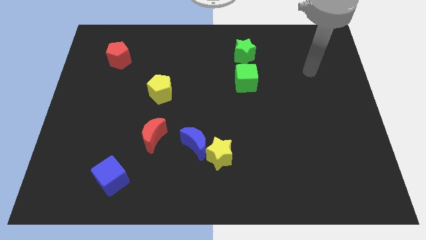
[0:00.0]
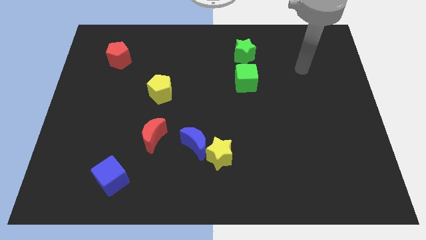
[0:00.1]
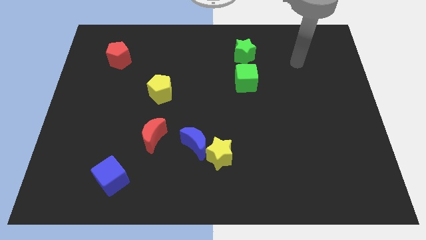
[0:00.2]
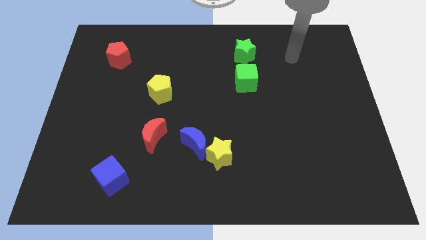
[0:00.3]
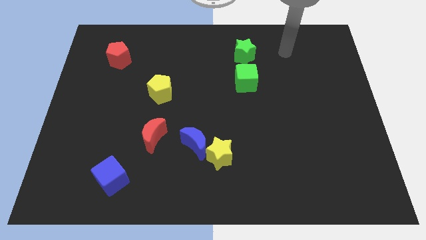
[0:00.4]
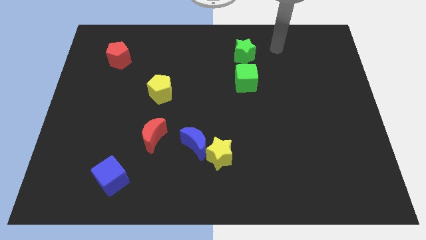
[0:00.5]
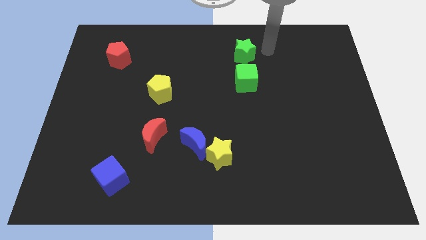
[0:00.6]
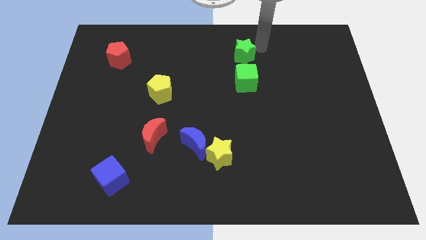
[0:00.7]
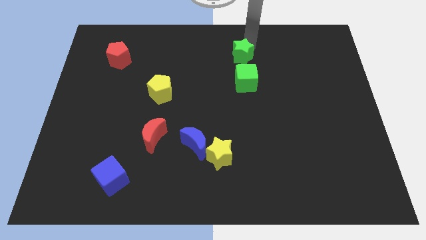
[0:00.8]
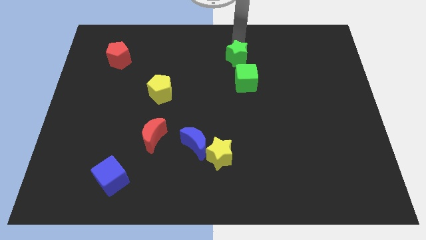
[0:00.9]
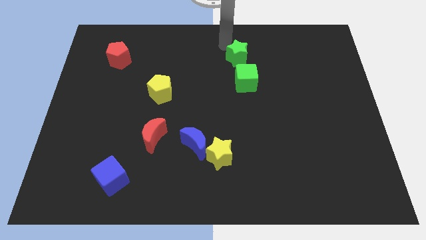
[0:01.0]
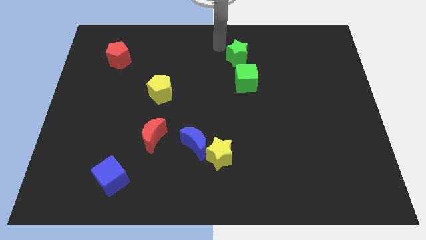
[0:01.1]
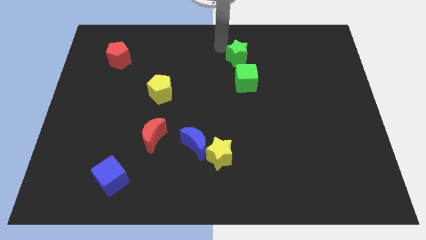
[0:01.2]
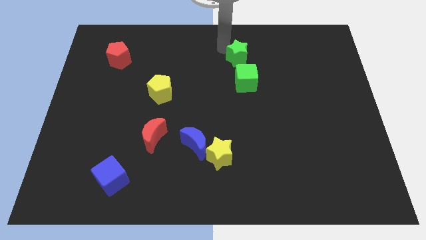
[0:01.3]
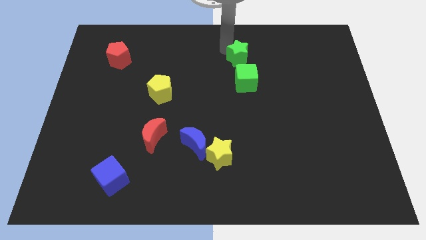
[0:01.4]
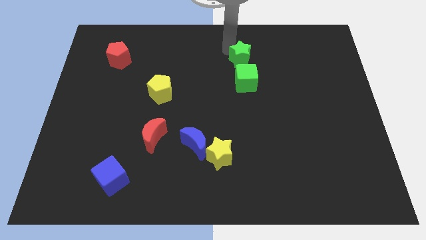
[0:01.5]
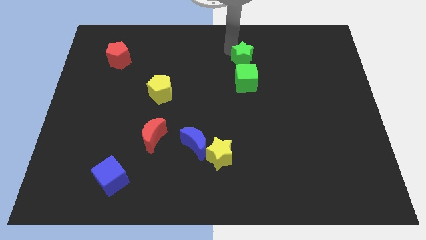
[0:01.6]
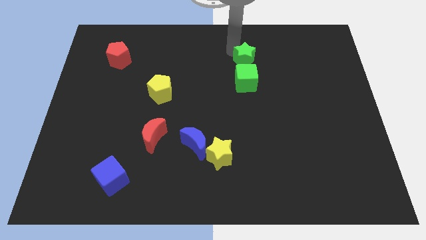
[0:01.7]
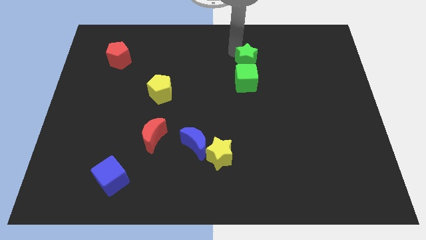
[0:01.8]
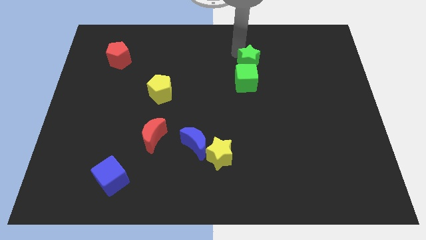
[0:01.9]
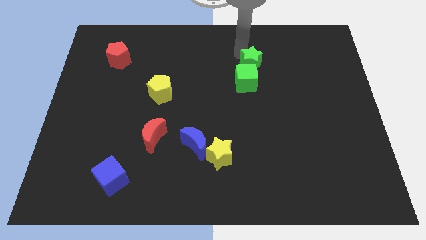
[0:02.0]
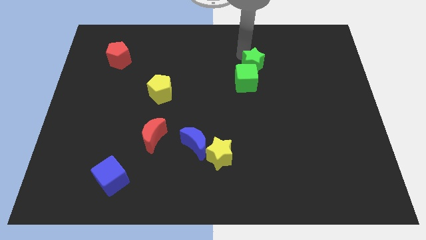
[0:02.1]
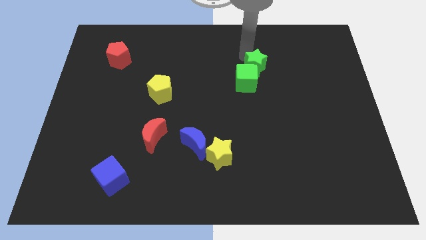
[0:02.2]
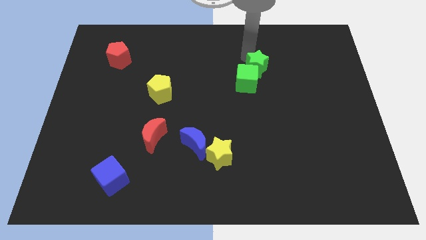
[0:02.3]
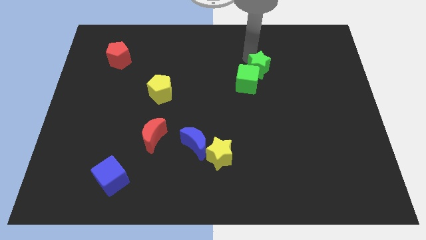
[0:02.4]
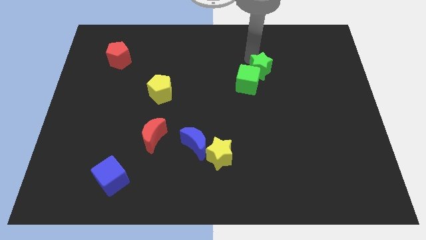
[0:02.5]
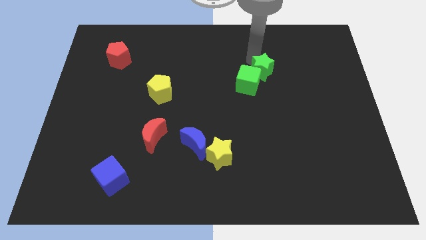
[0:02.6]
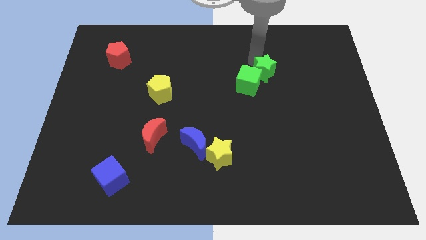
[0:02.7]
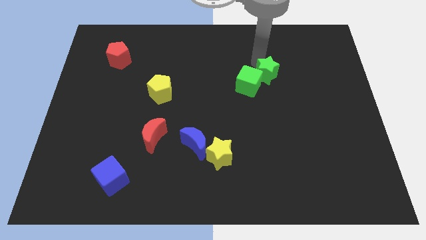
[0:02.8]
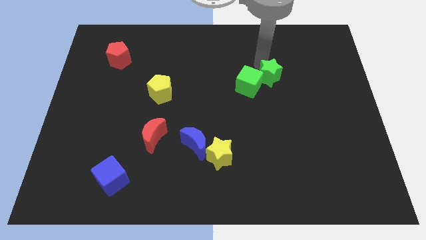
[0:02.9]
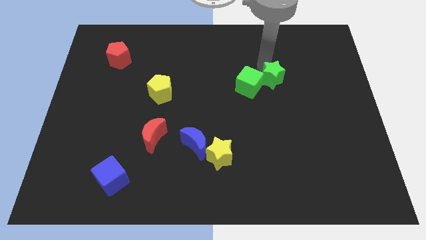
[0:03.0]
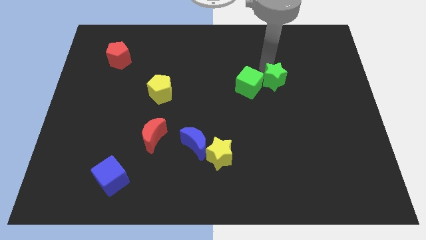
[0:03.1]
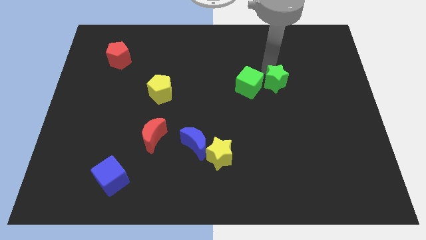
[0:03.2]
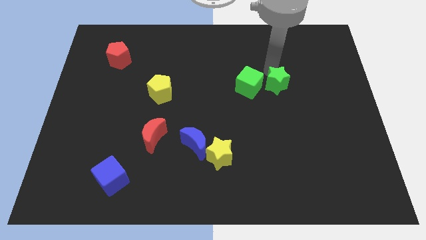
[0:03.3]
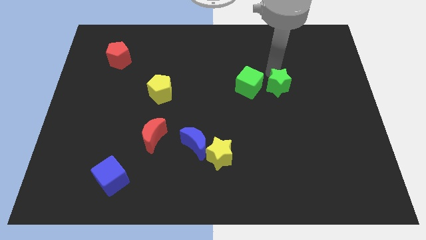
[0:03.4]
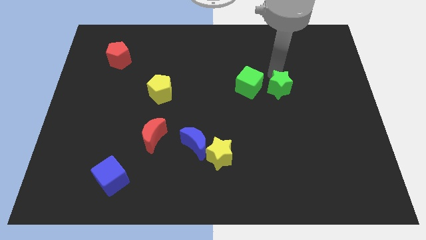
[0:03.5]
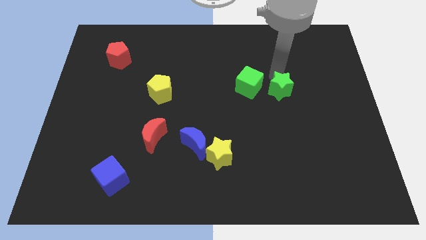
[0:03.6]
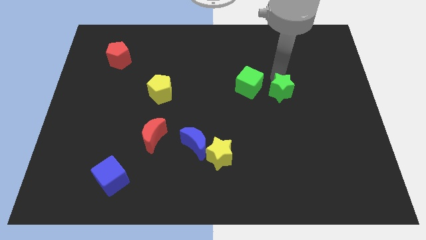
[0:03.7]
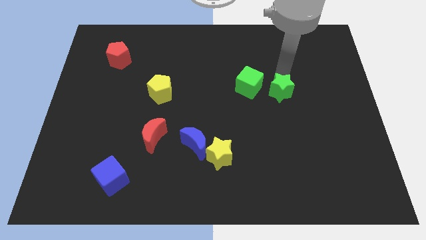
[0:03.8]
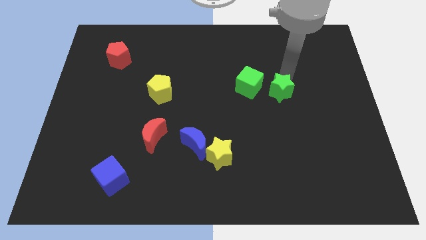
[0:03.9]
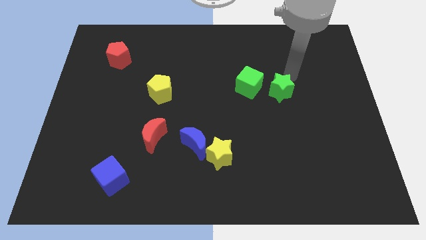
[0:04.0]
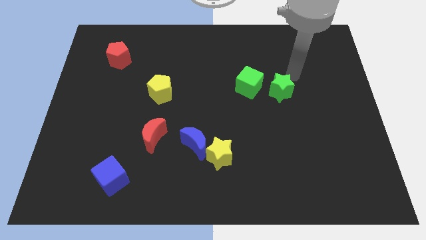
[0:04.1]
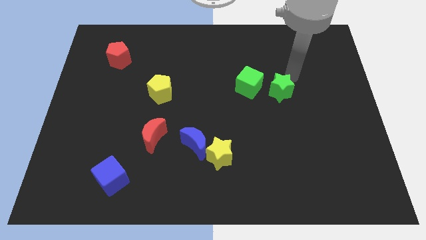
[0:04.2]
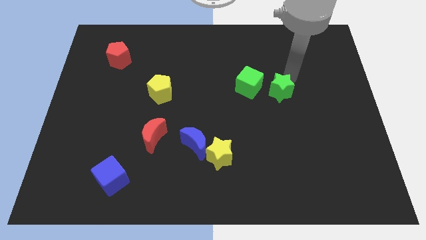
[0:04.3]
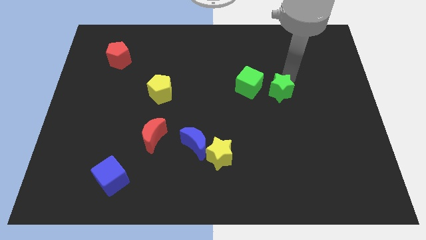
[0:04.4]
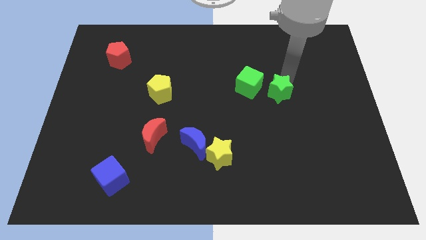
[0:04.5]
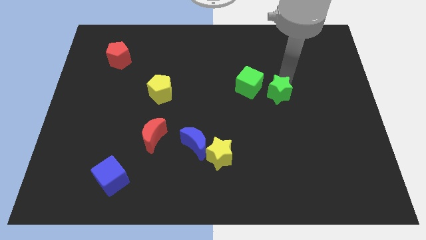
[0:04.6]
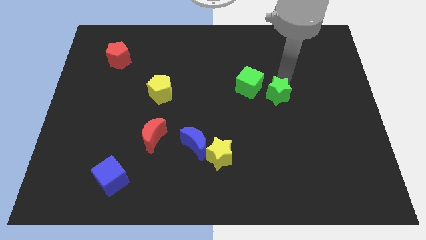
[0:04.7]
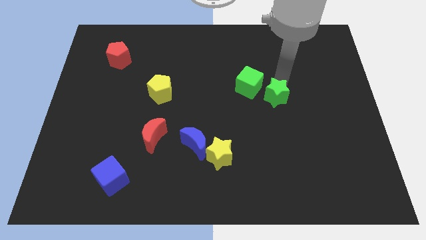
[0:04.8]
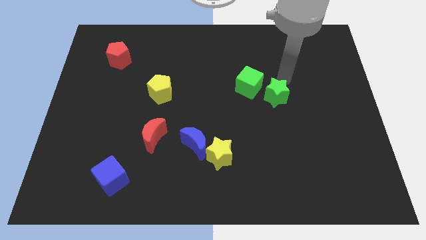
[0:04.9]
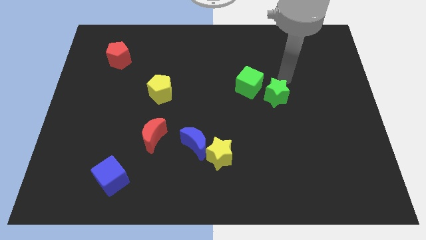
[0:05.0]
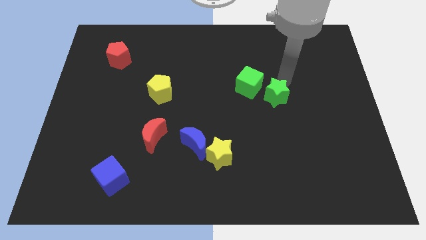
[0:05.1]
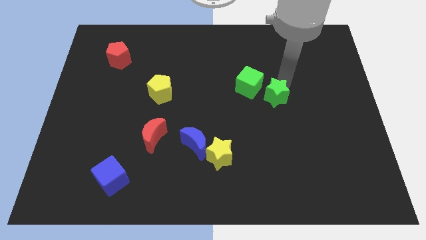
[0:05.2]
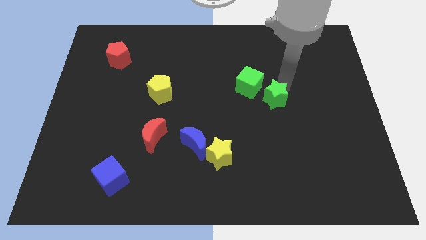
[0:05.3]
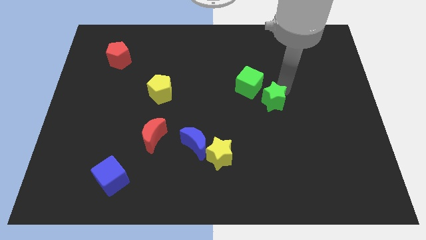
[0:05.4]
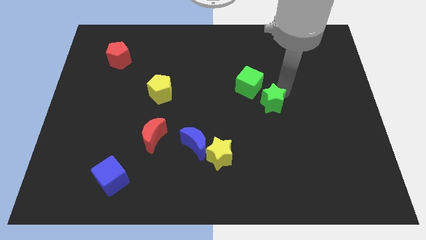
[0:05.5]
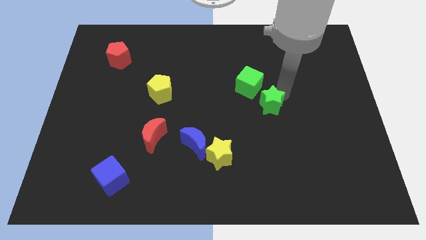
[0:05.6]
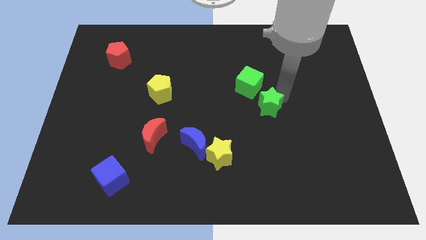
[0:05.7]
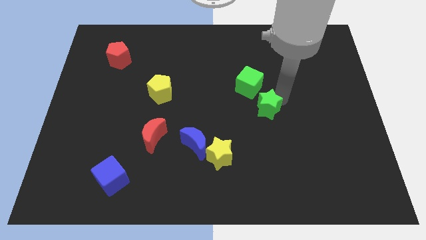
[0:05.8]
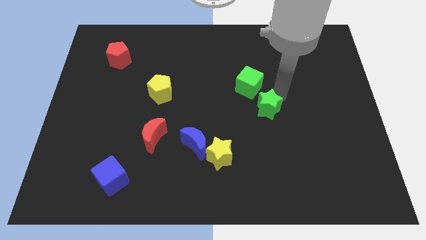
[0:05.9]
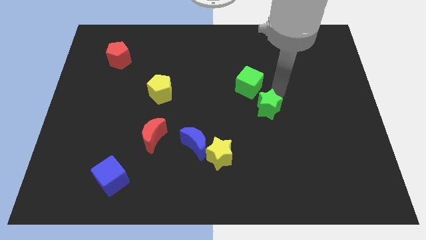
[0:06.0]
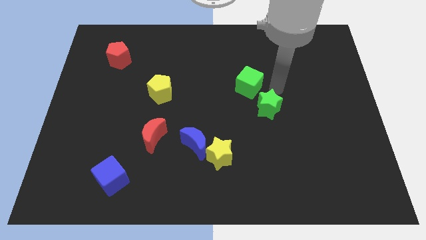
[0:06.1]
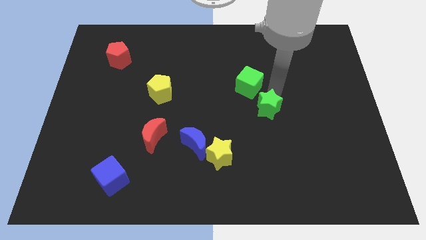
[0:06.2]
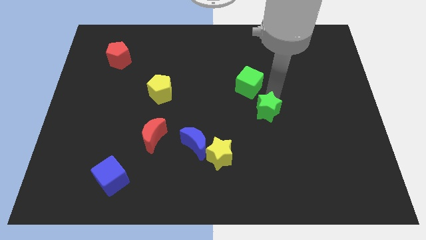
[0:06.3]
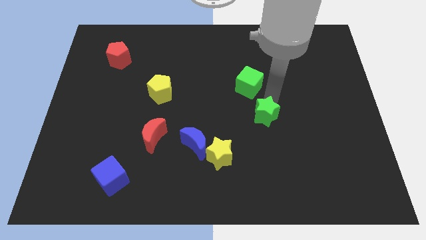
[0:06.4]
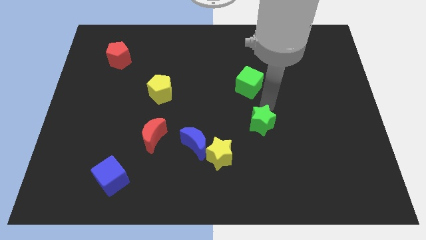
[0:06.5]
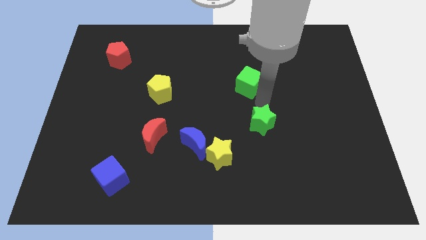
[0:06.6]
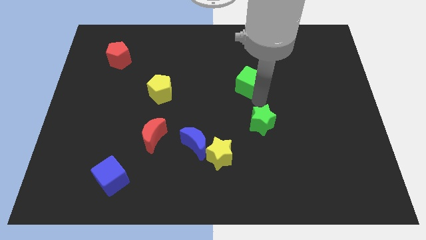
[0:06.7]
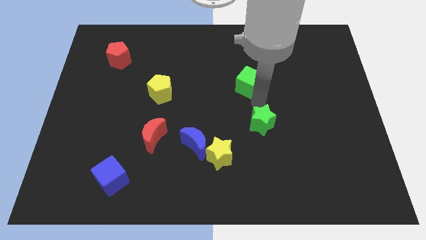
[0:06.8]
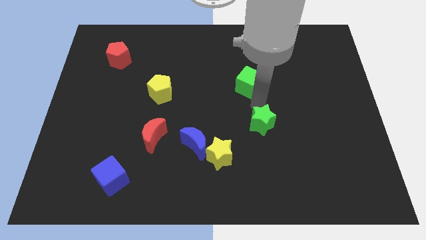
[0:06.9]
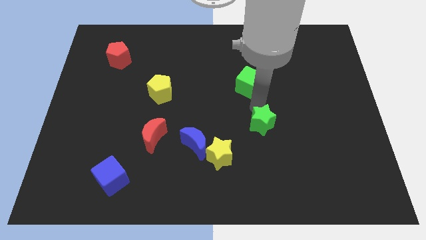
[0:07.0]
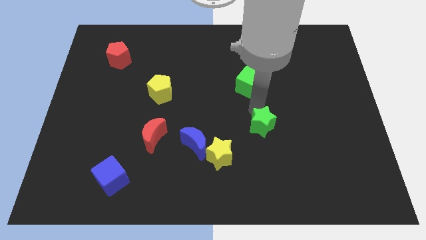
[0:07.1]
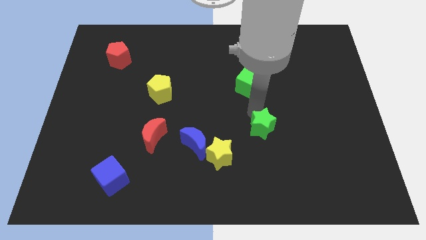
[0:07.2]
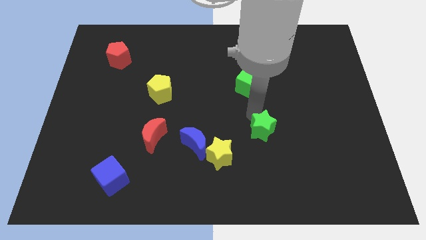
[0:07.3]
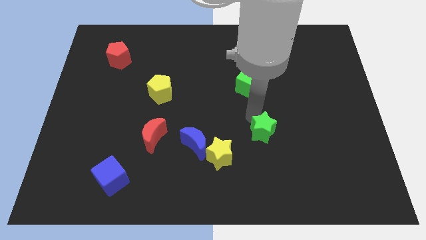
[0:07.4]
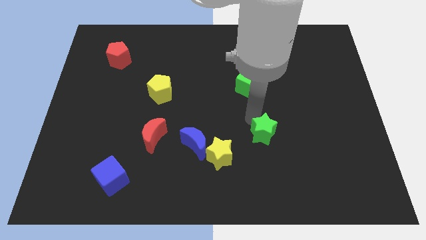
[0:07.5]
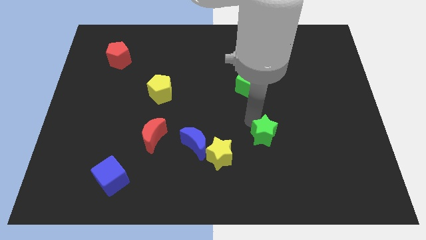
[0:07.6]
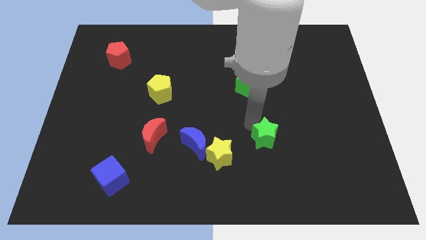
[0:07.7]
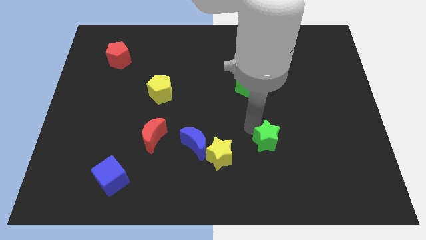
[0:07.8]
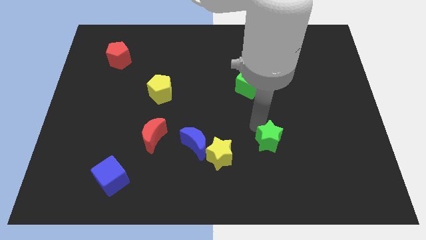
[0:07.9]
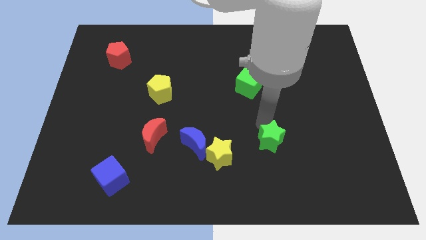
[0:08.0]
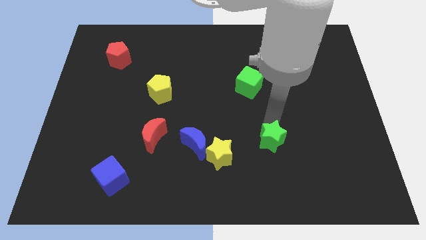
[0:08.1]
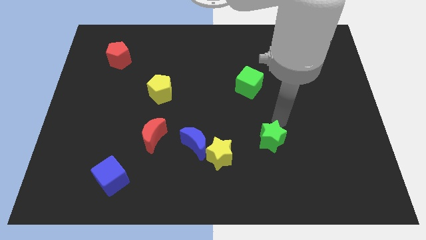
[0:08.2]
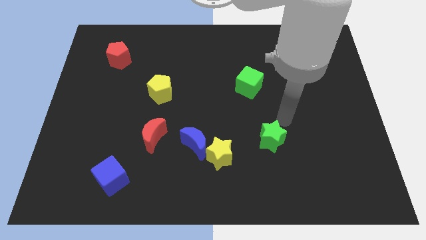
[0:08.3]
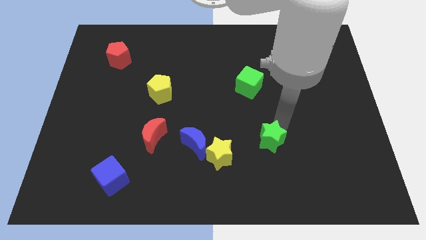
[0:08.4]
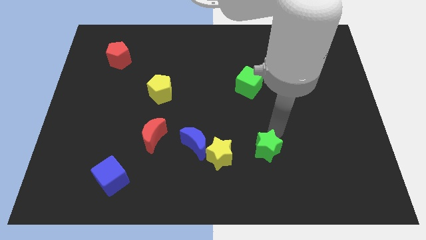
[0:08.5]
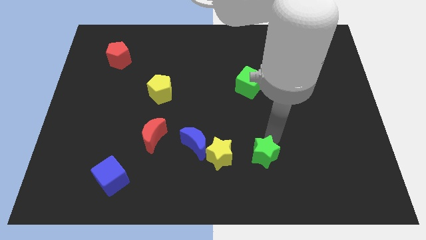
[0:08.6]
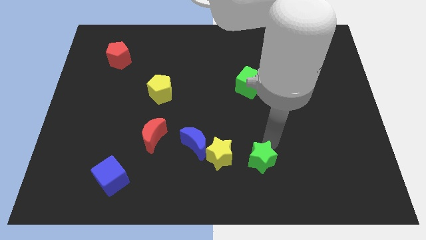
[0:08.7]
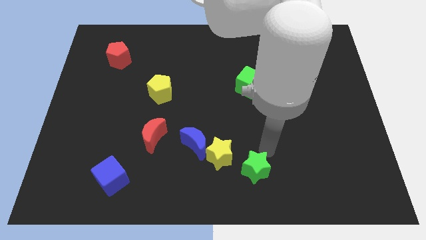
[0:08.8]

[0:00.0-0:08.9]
move the green star to the bottom
